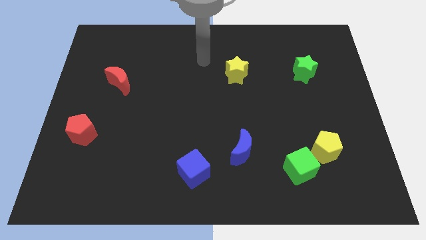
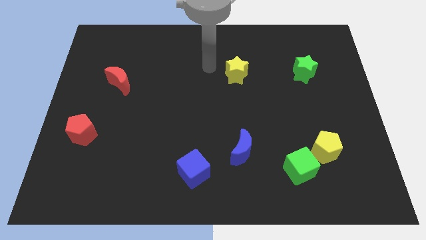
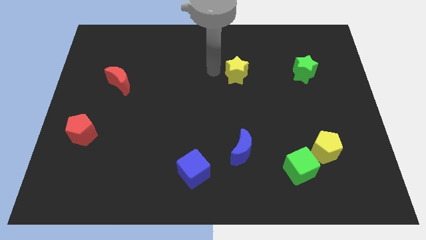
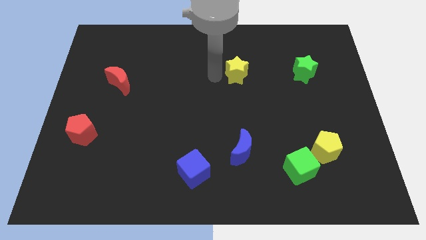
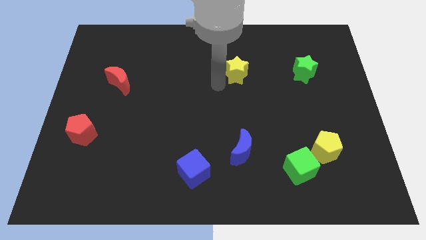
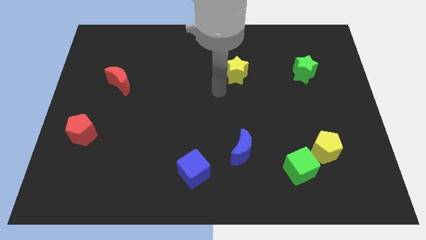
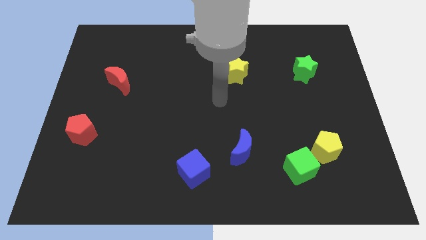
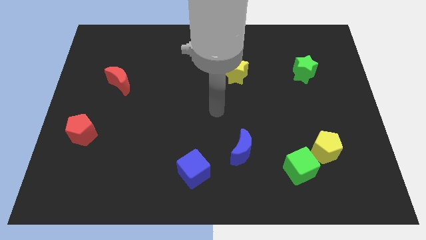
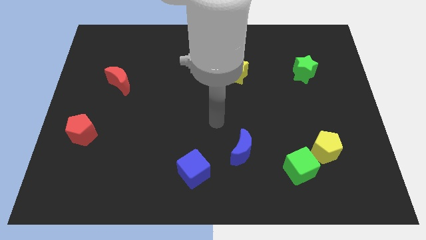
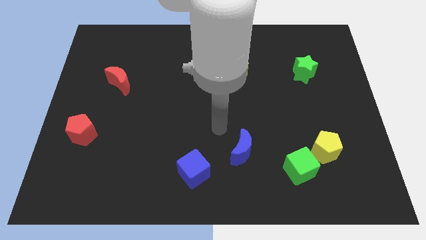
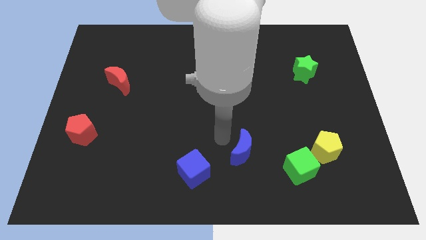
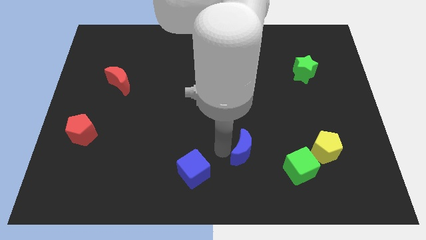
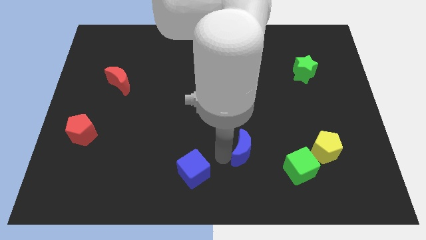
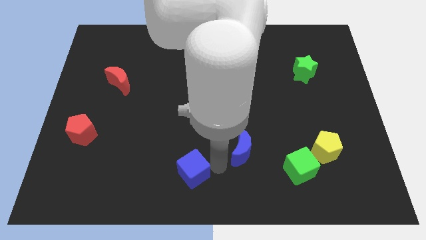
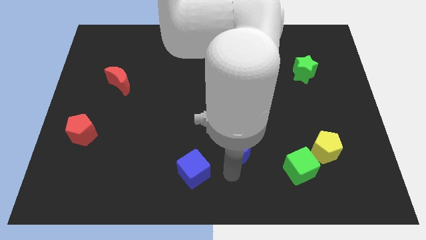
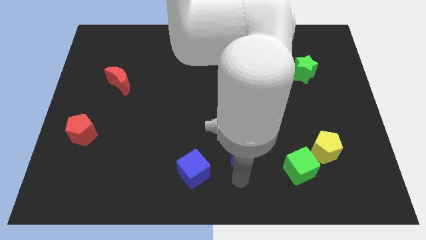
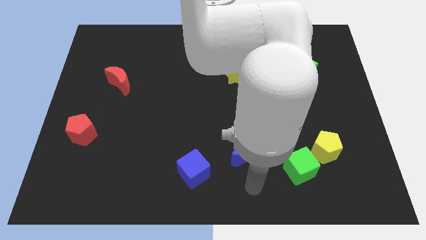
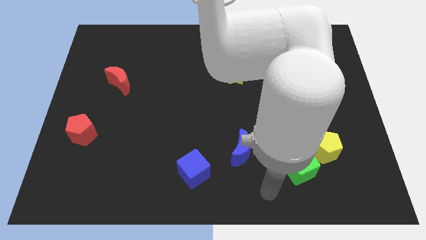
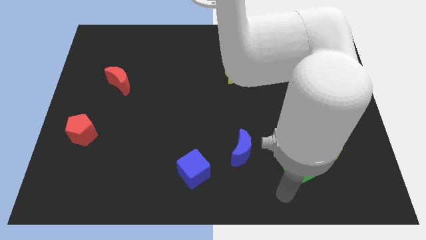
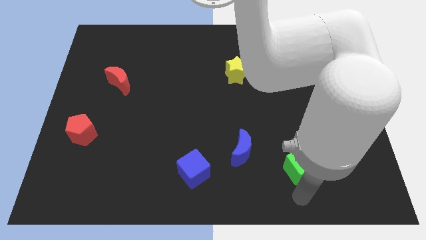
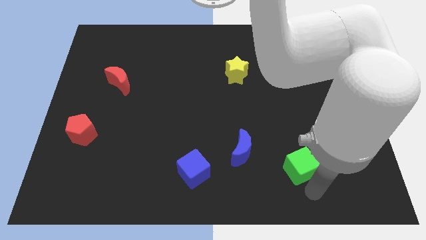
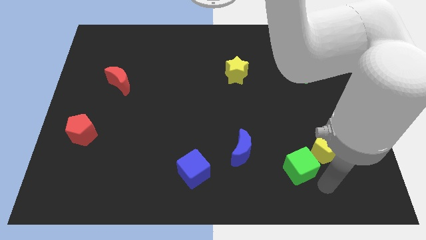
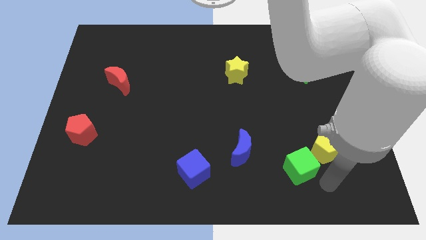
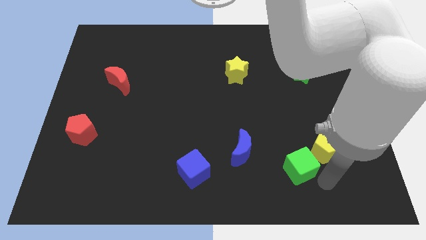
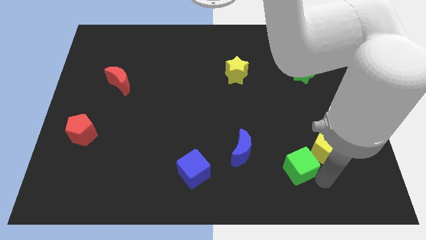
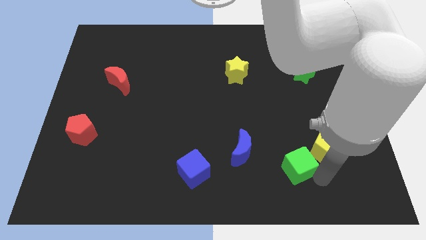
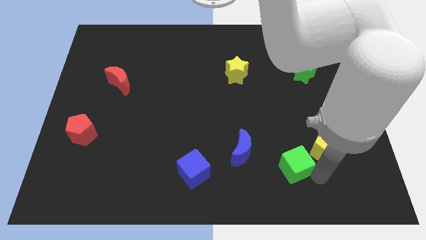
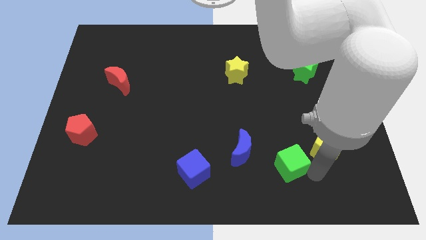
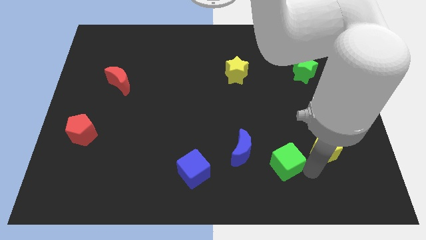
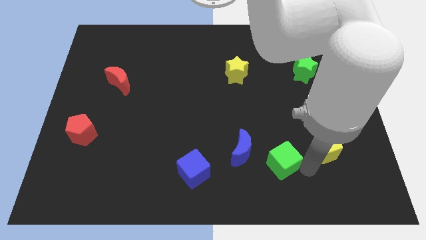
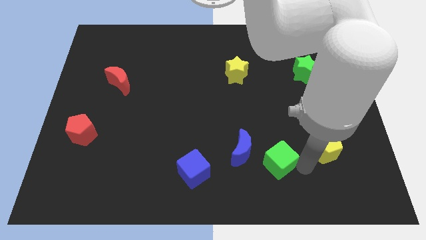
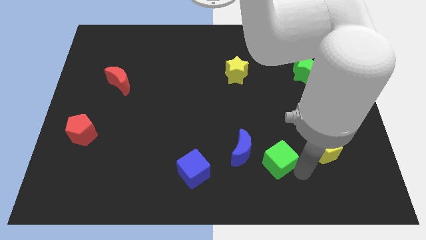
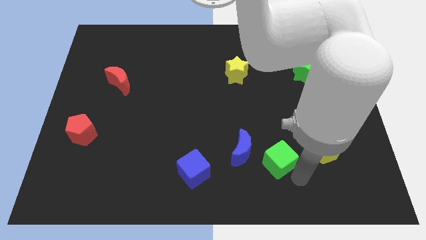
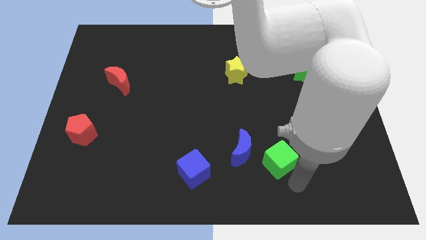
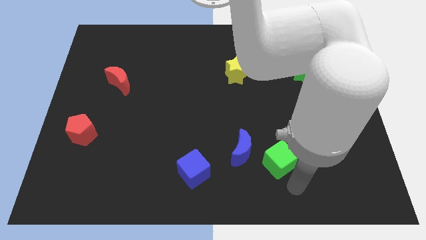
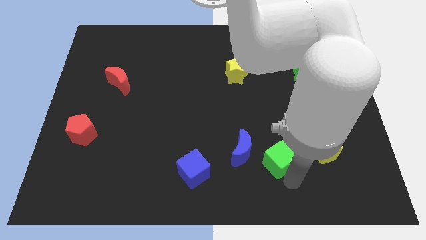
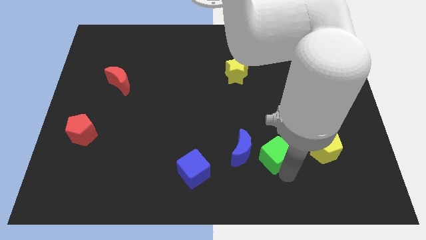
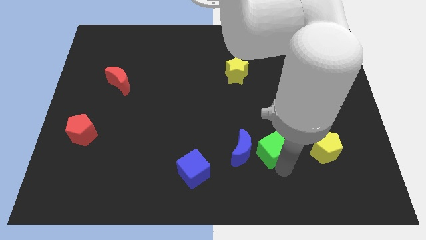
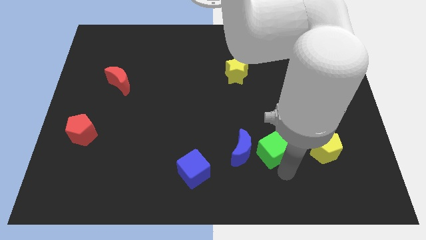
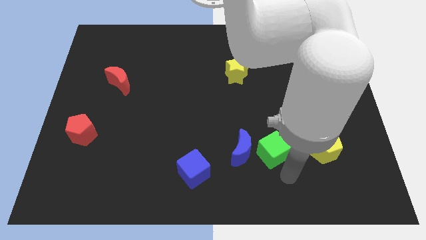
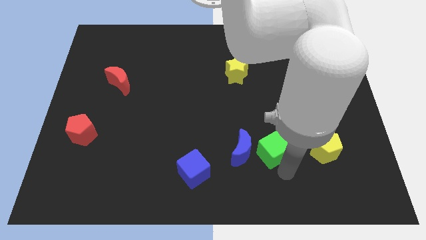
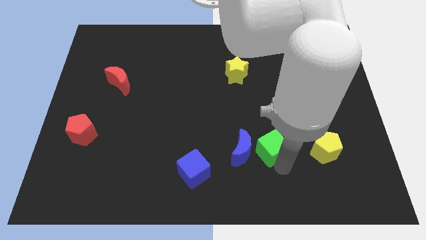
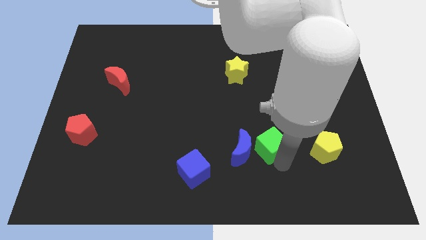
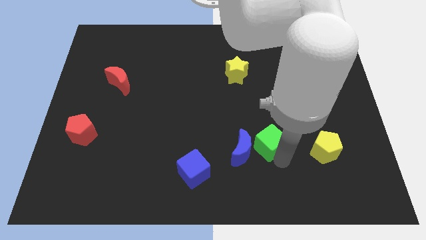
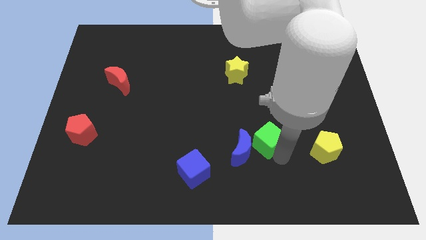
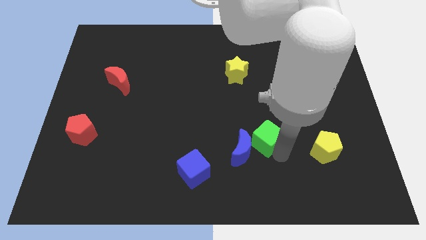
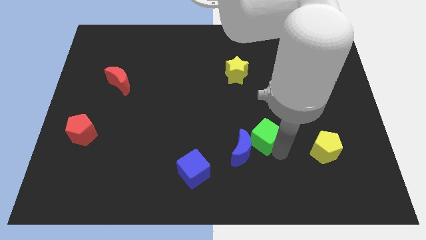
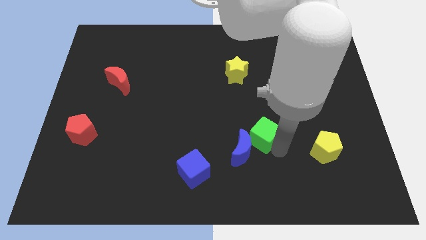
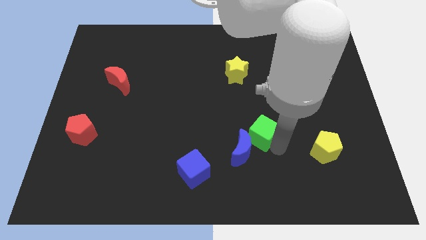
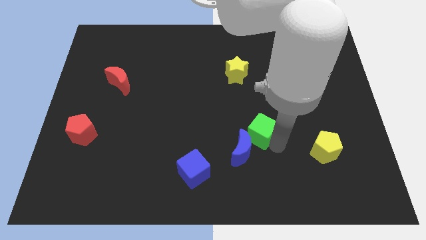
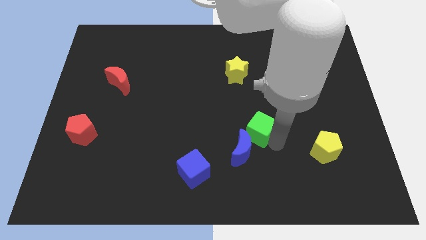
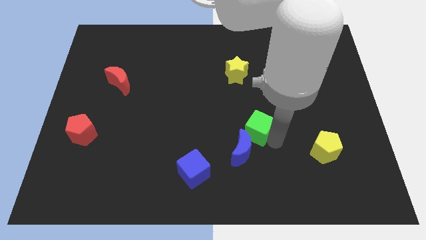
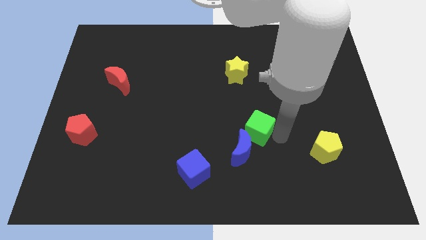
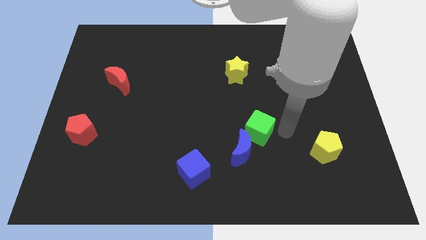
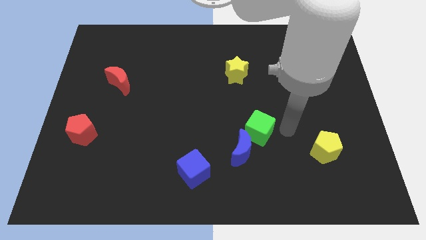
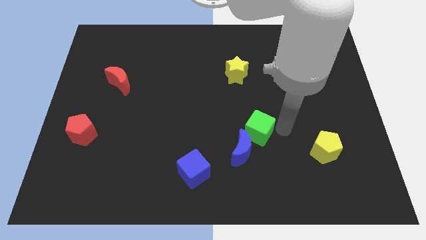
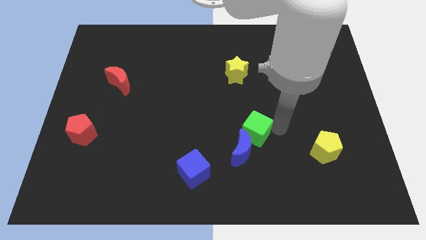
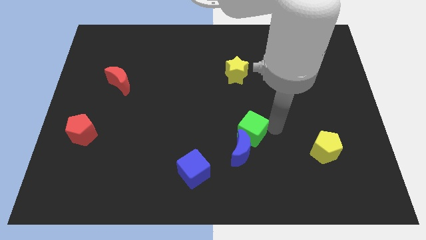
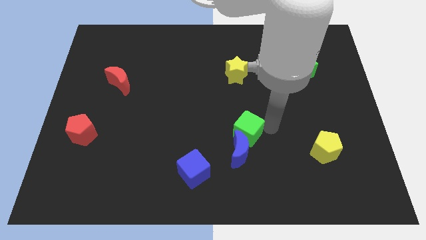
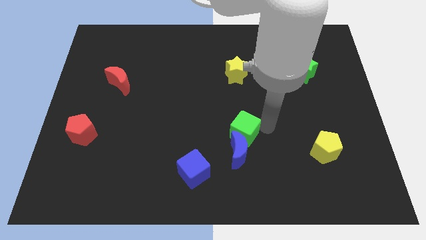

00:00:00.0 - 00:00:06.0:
push the green cube to the top left side of the blue moon
